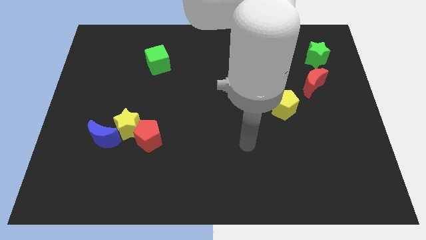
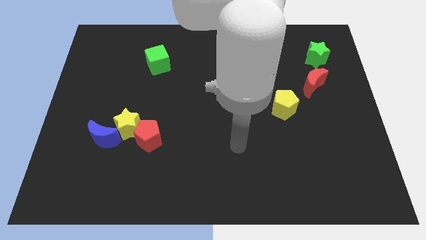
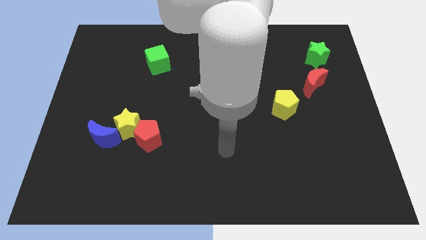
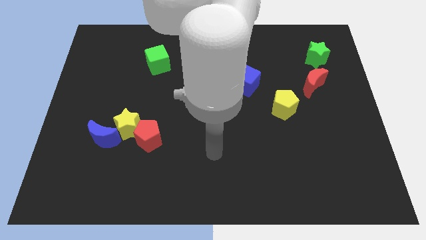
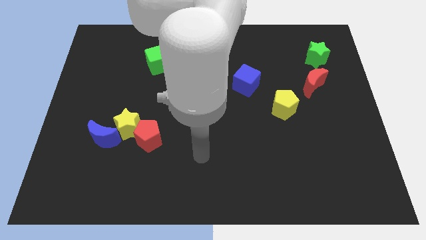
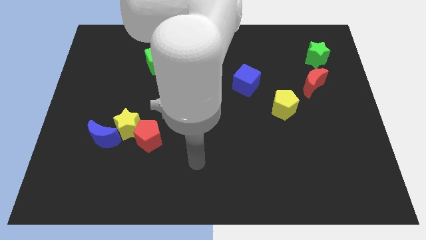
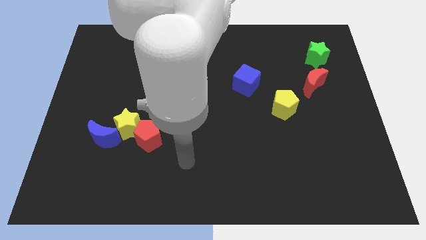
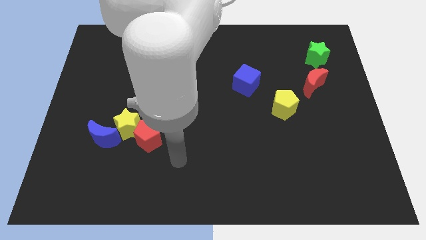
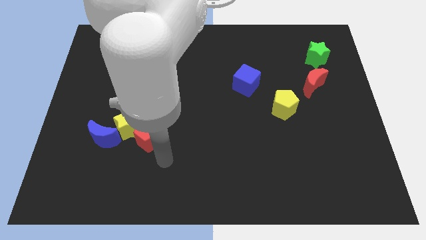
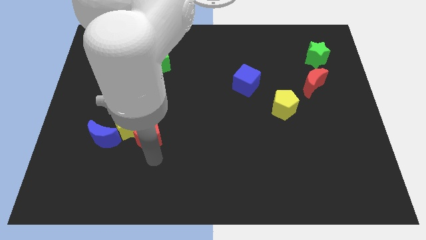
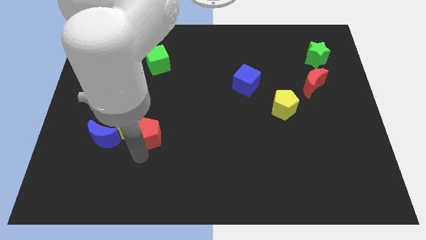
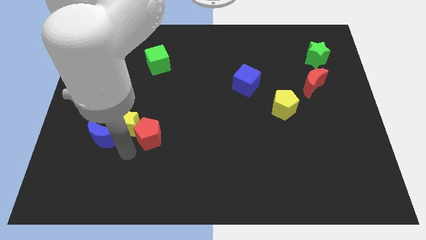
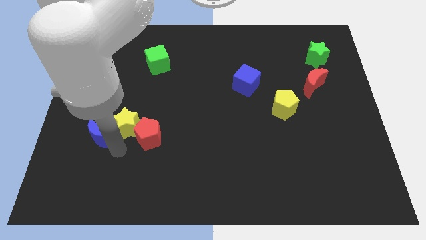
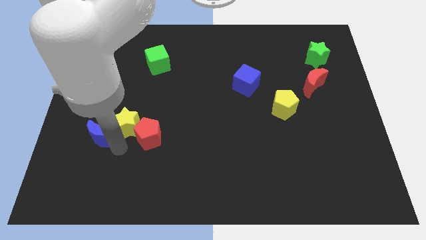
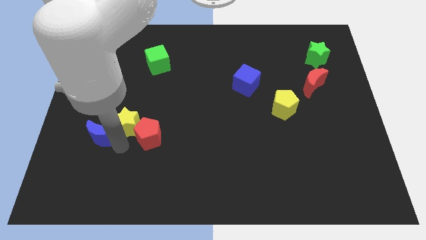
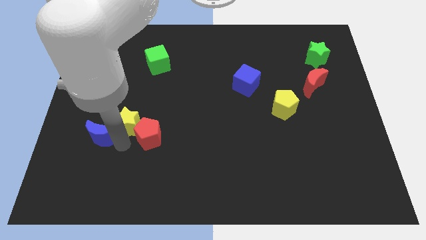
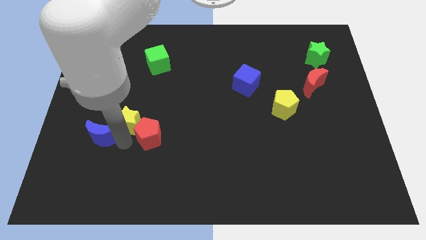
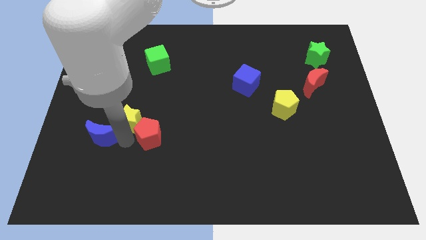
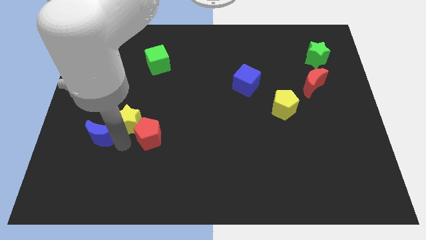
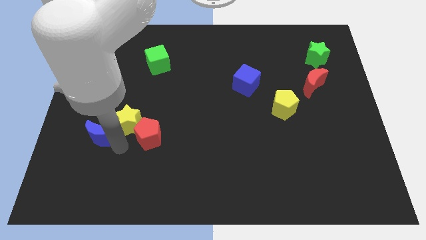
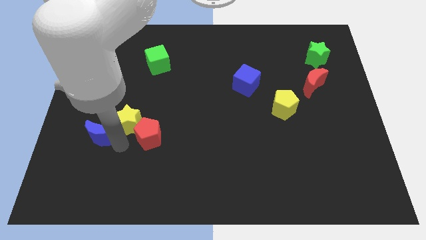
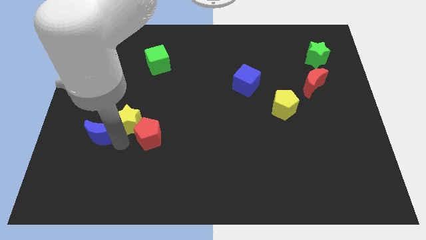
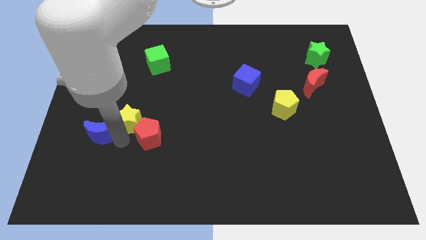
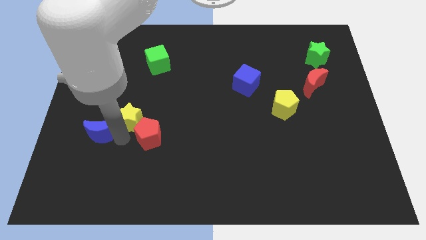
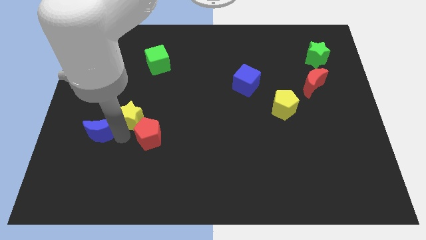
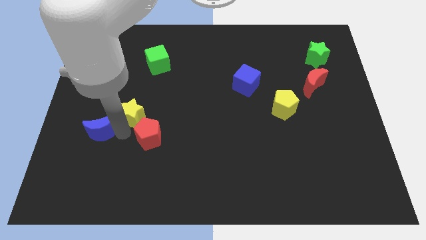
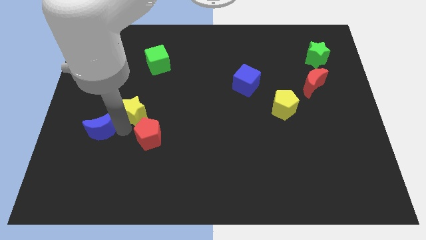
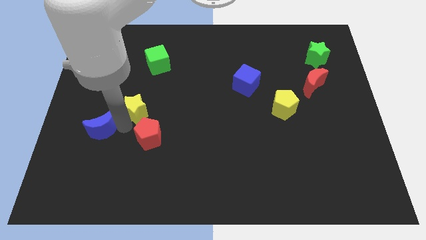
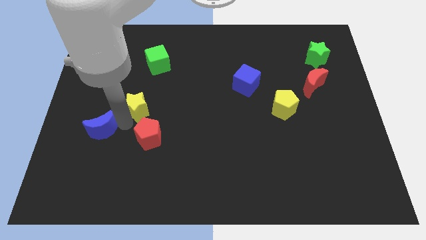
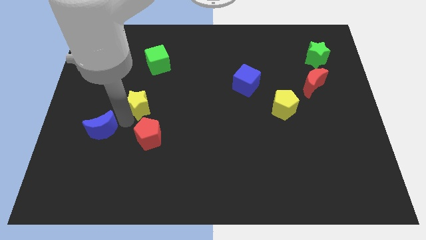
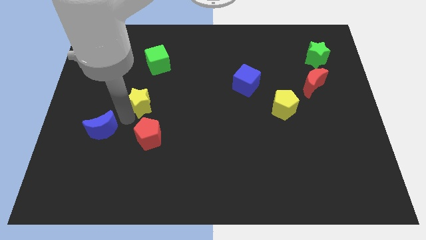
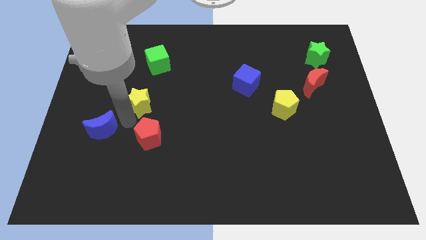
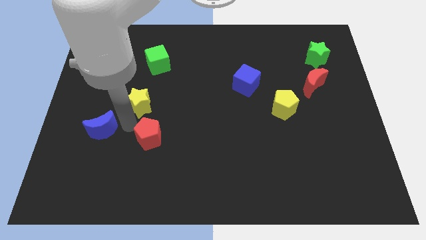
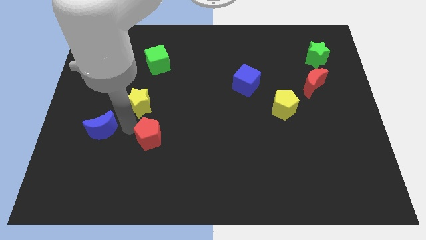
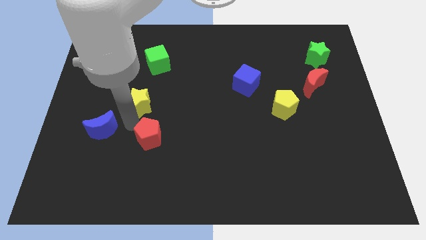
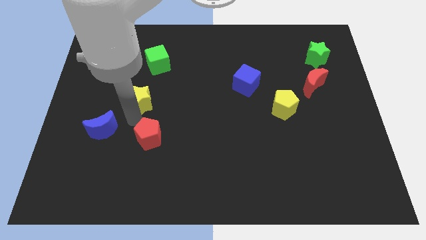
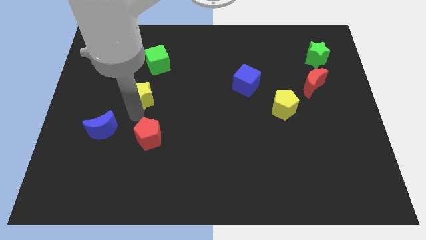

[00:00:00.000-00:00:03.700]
pull the yellow star apart from the red pentagon and blue moon

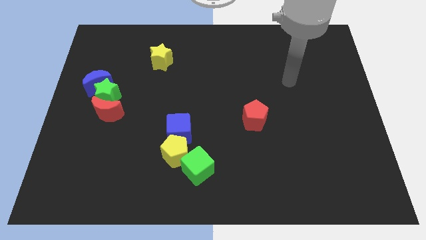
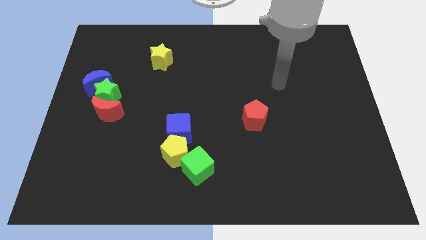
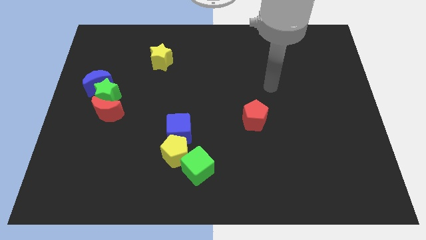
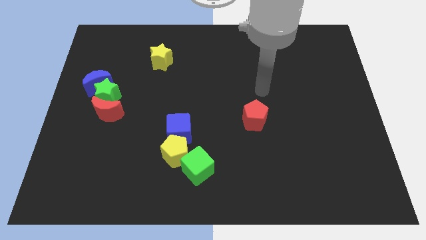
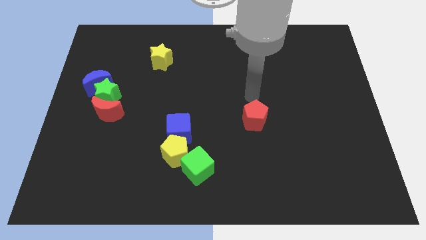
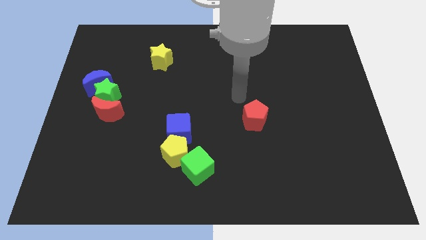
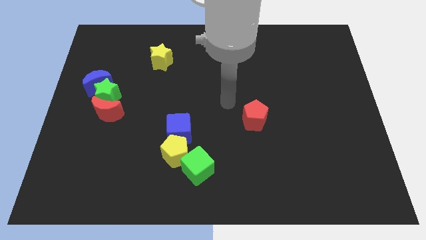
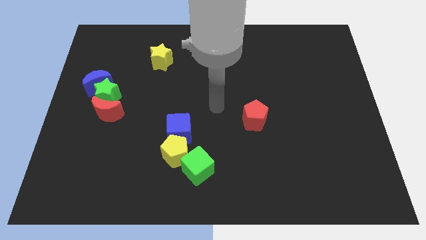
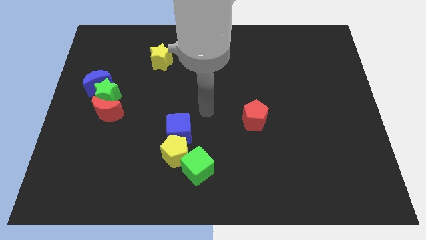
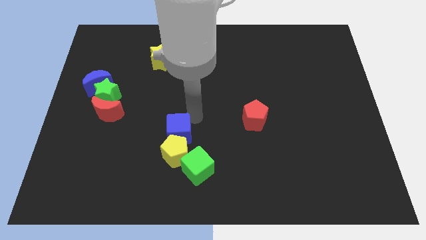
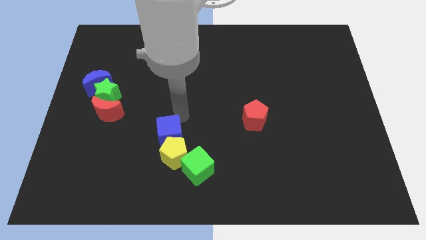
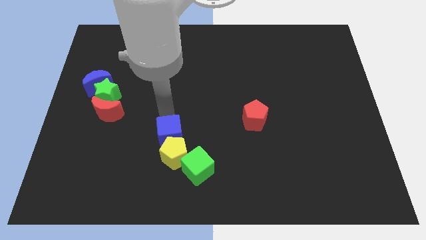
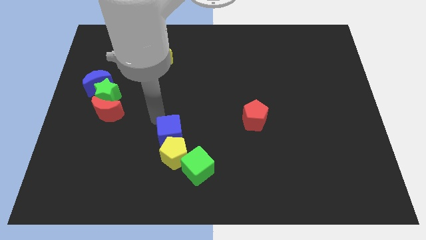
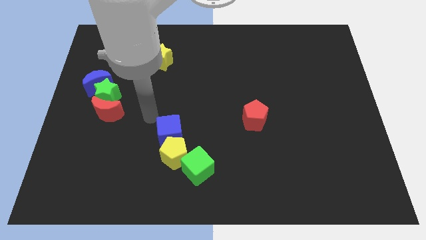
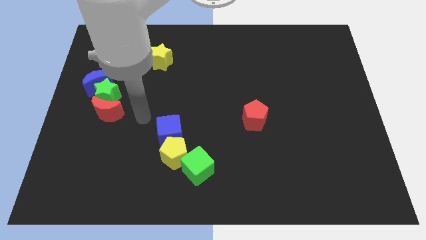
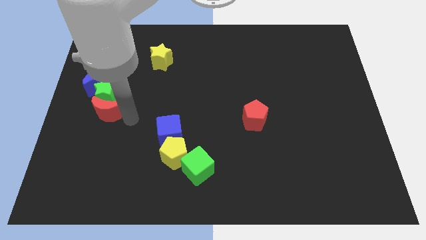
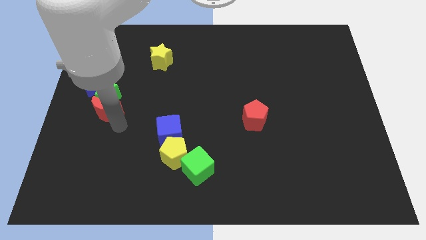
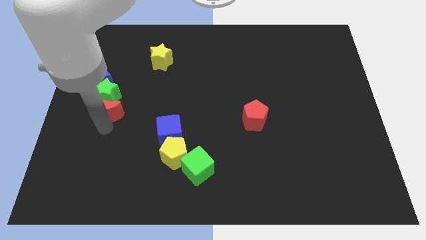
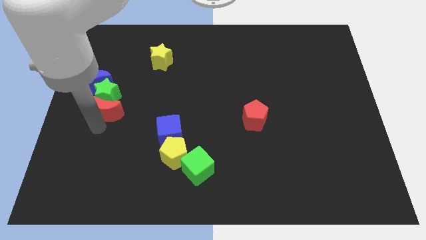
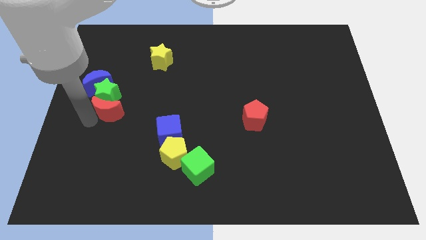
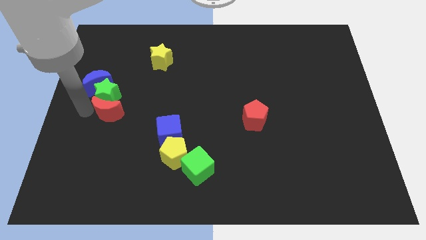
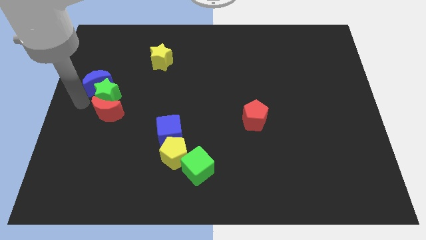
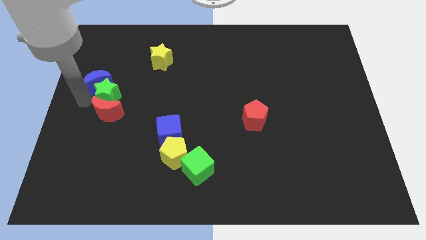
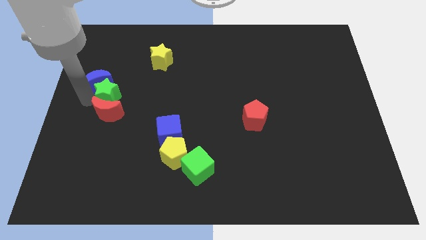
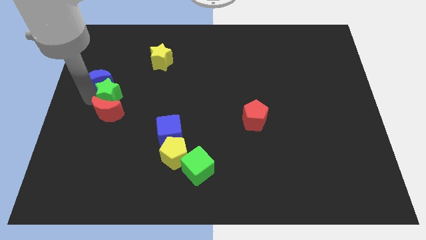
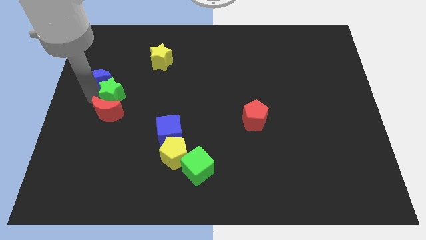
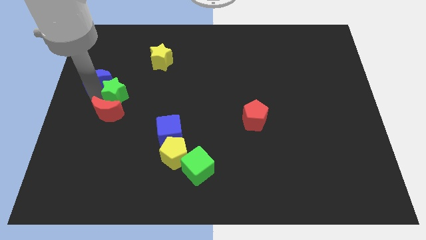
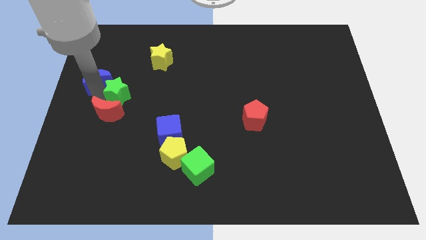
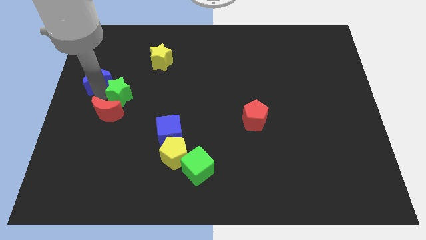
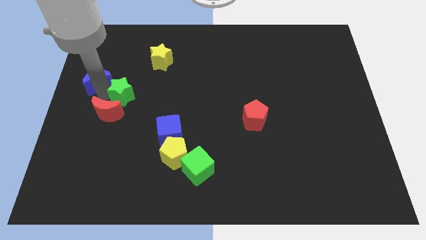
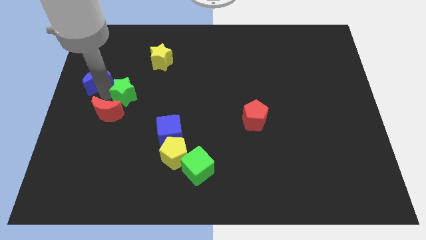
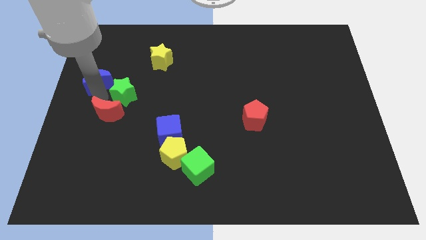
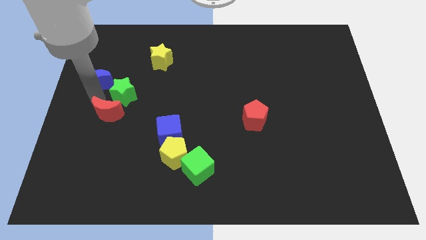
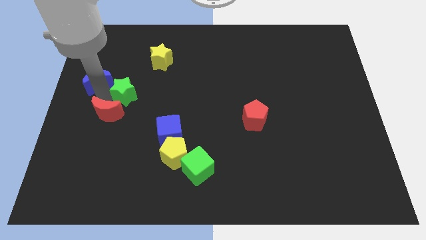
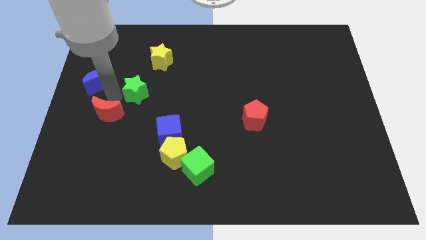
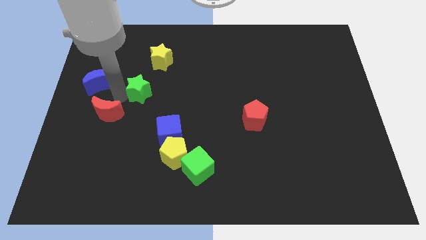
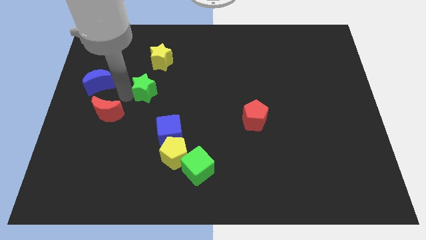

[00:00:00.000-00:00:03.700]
pull the green star apart from the red moon and blue moon

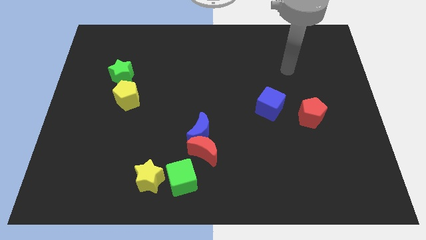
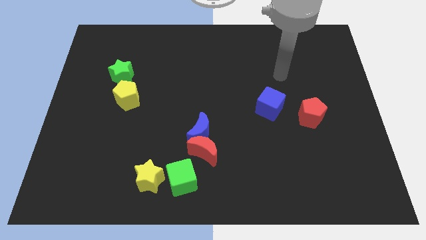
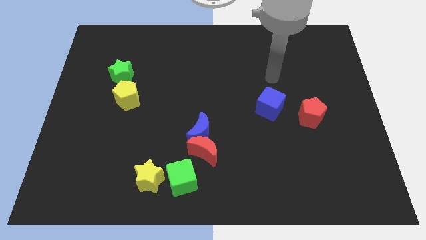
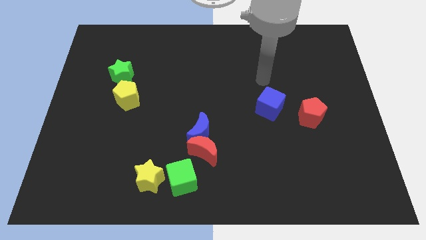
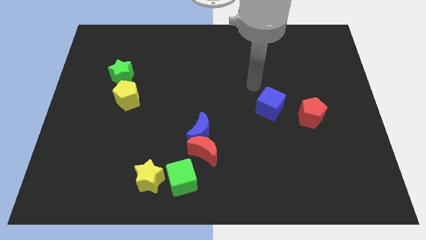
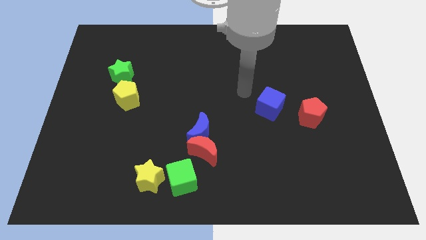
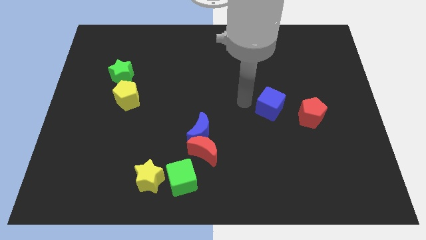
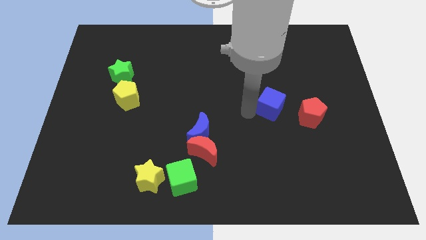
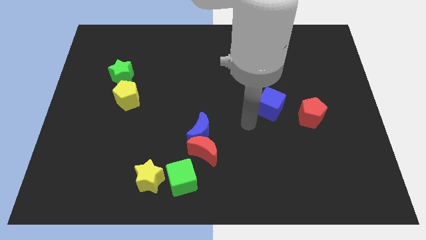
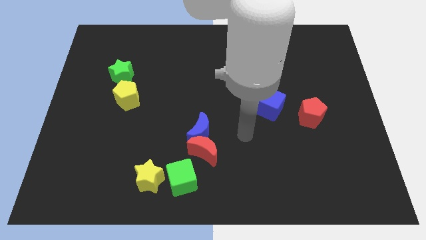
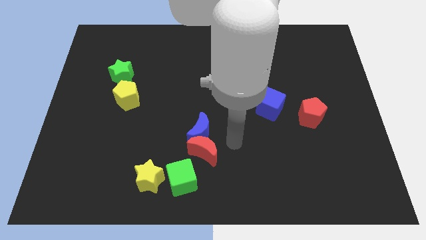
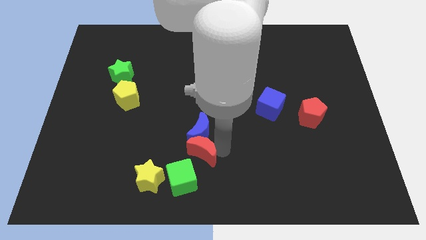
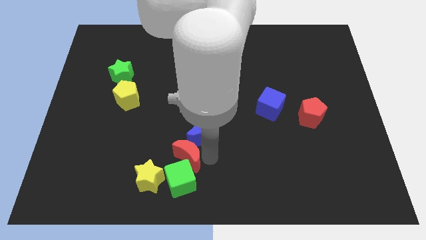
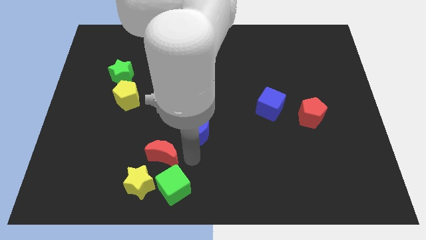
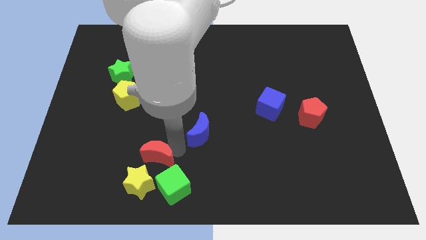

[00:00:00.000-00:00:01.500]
separate the blue moon from the red moon

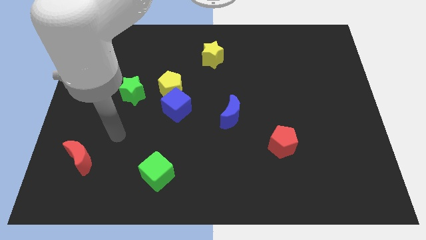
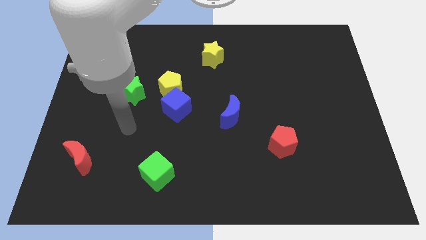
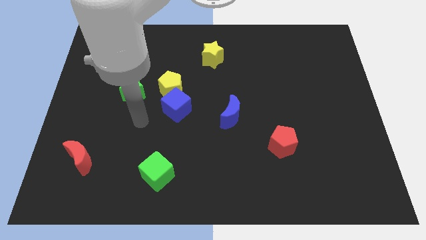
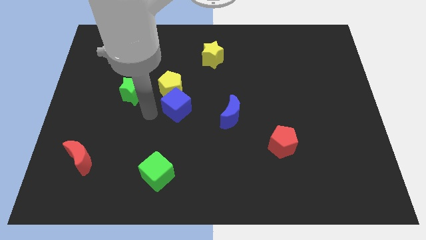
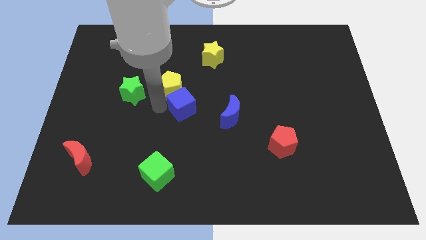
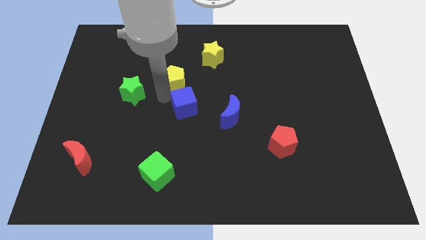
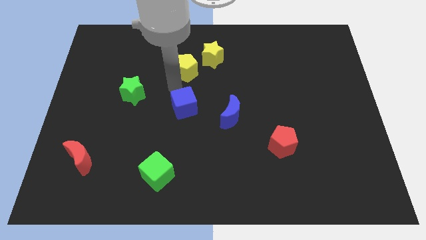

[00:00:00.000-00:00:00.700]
pull the blue cube apart from the yellow pentagon
